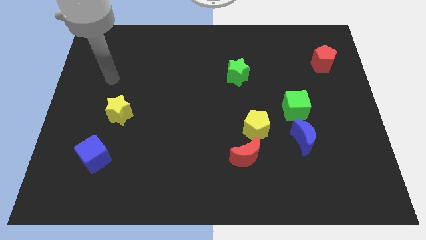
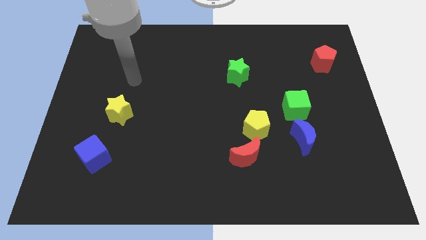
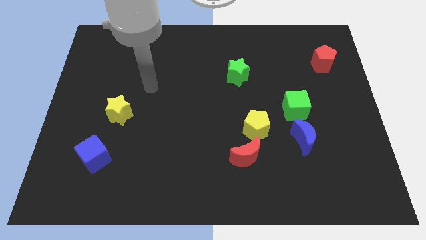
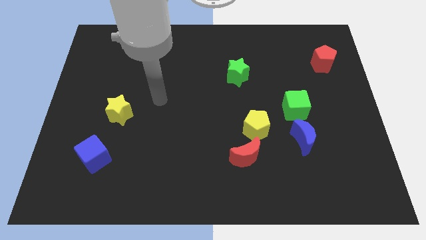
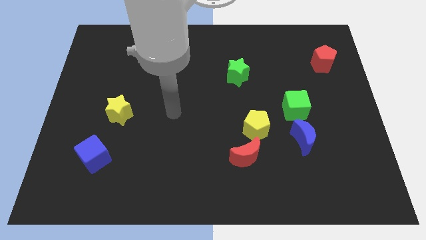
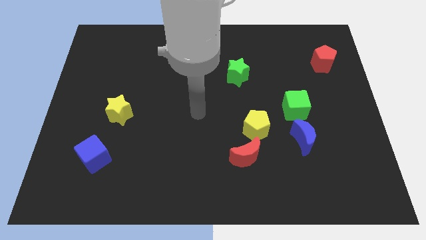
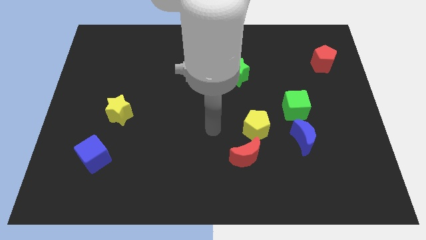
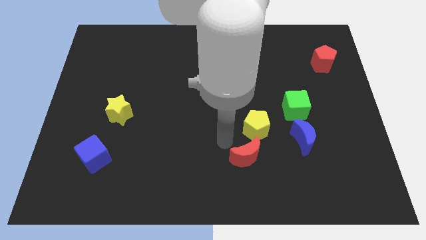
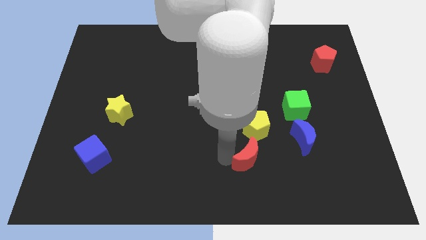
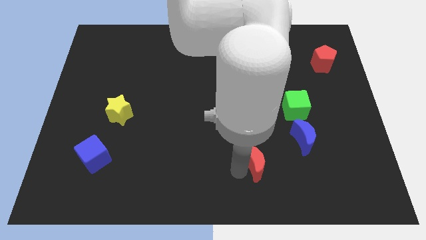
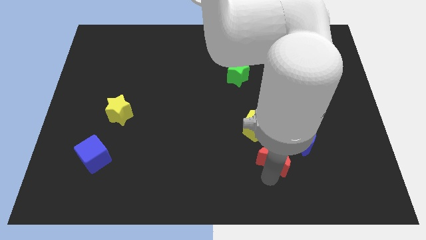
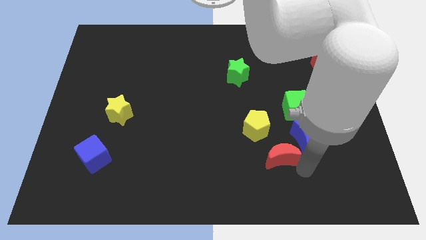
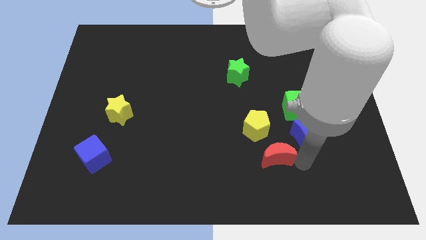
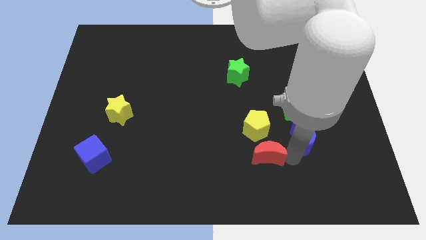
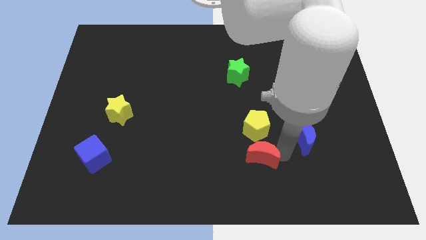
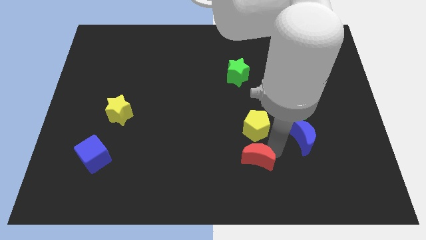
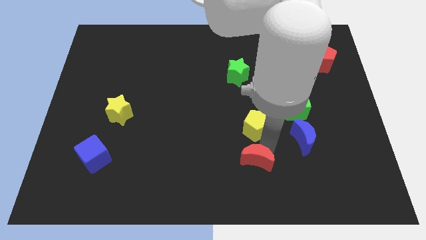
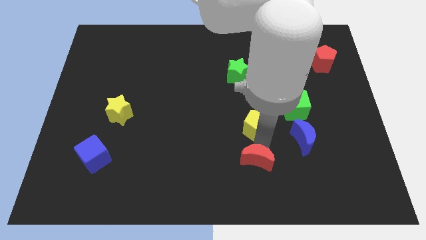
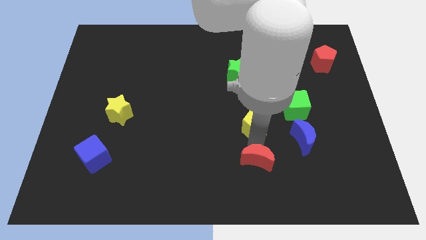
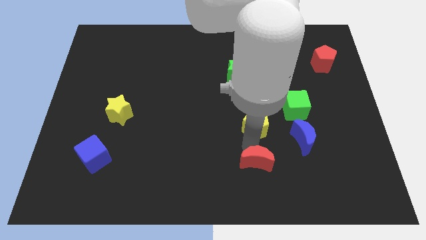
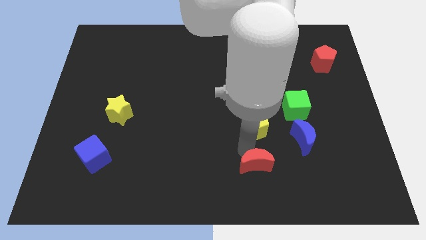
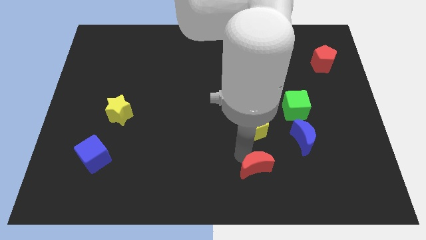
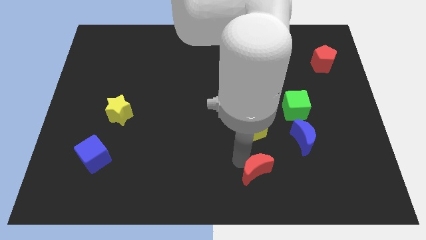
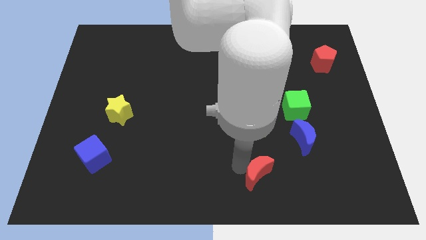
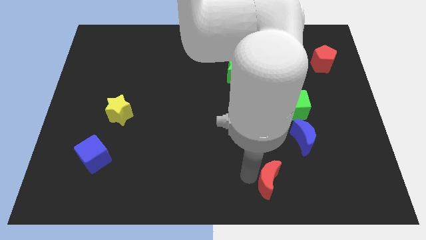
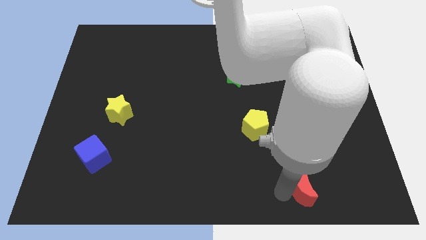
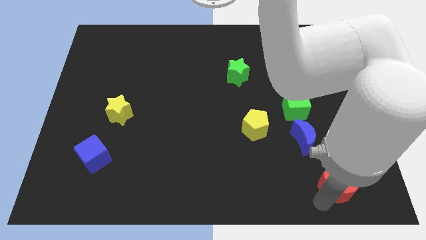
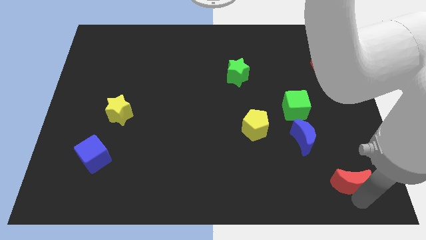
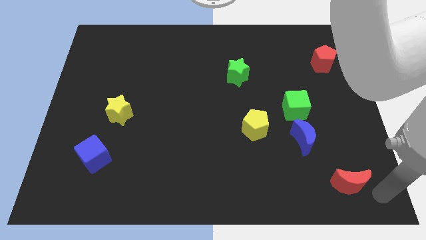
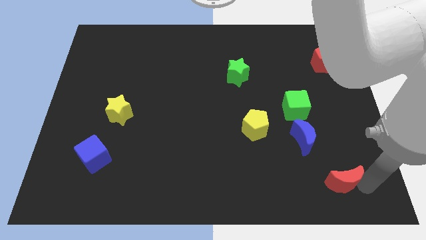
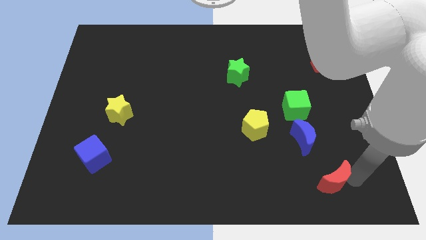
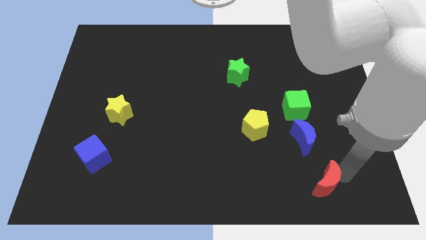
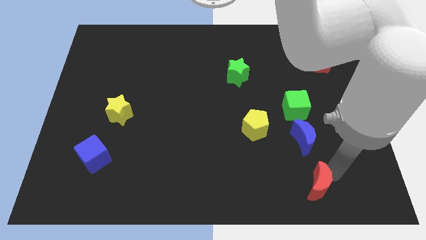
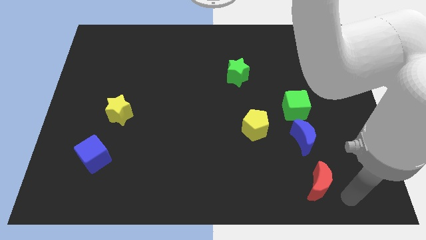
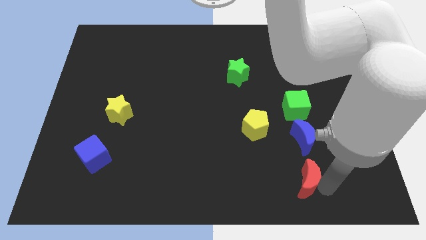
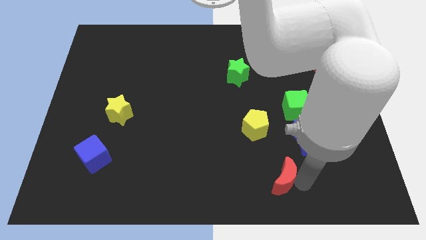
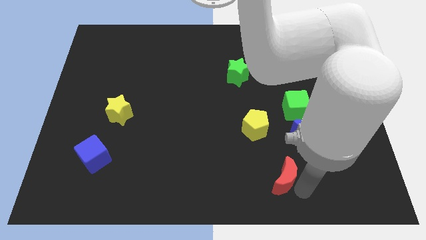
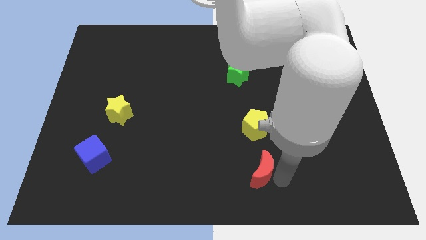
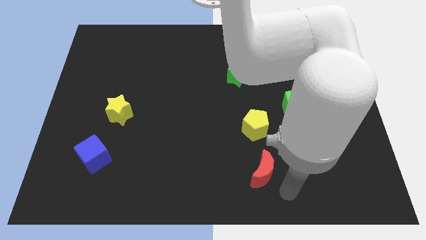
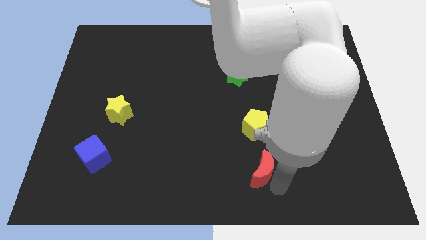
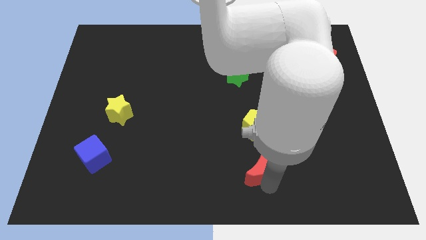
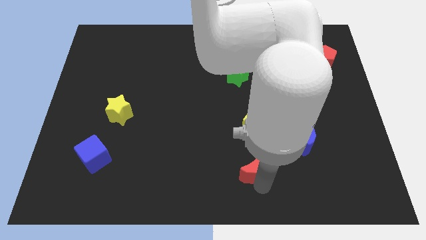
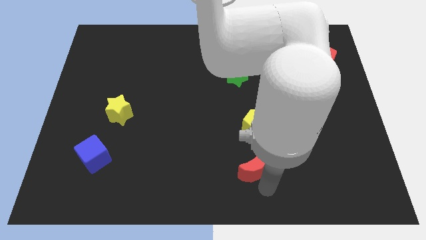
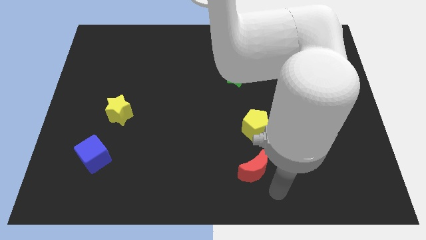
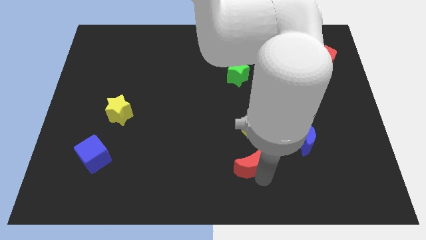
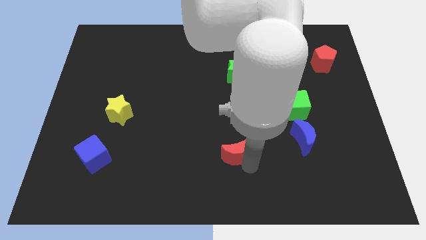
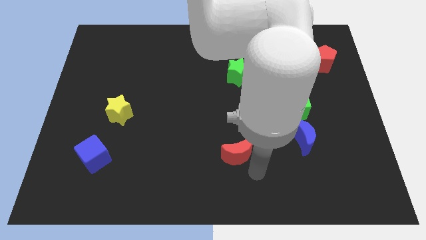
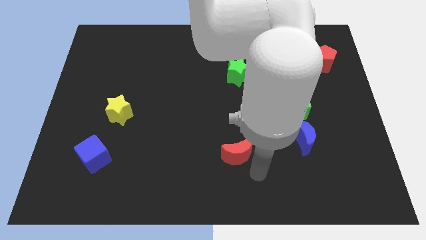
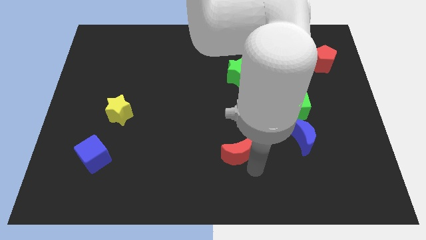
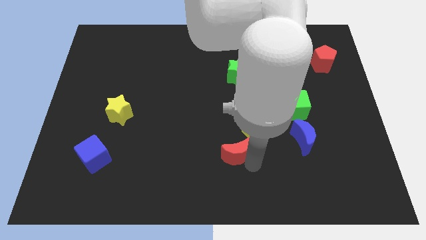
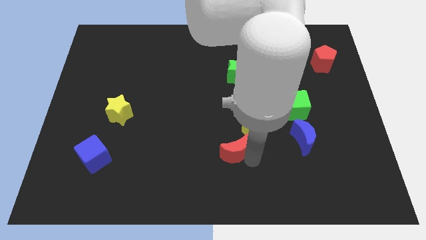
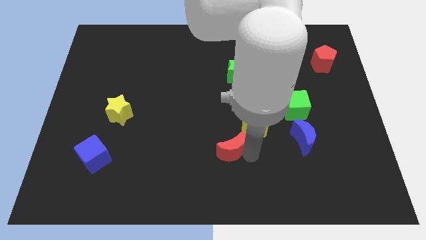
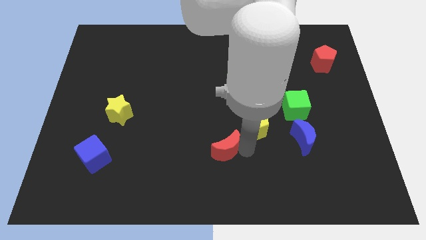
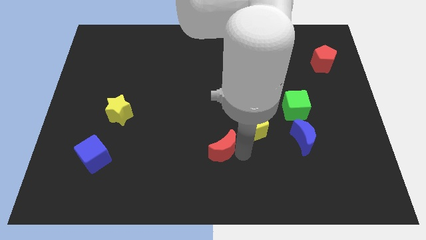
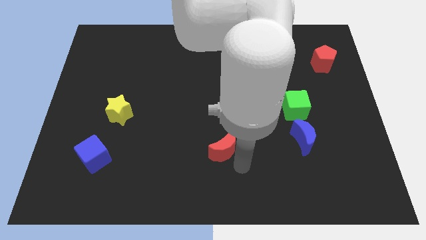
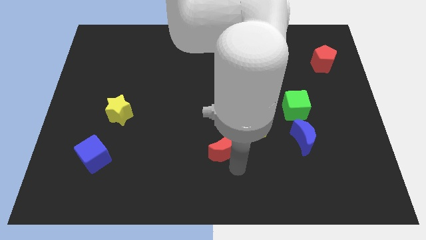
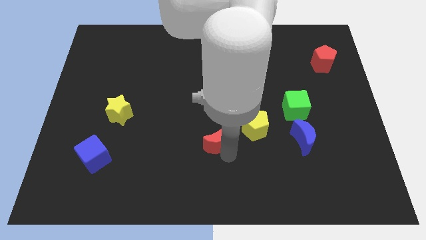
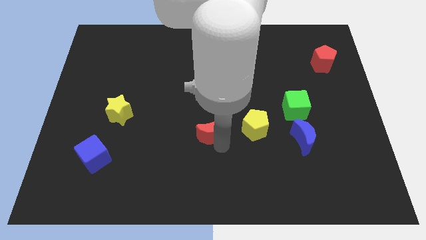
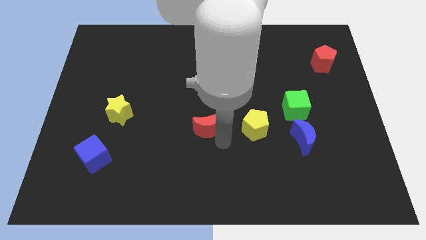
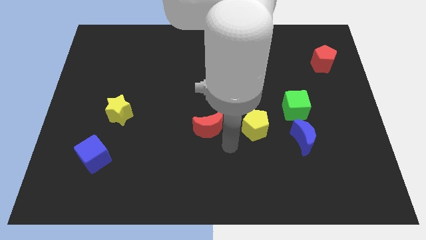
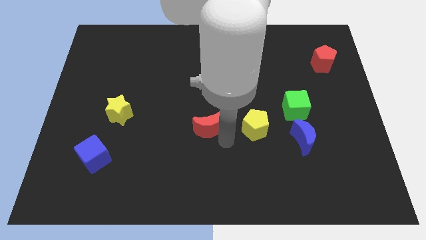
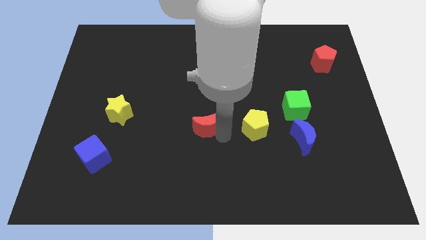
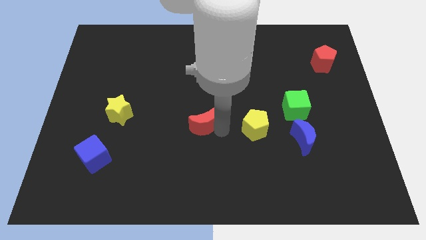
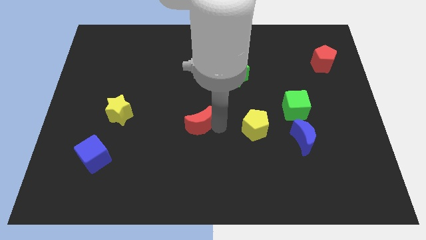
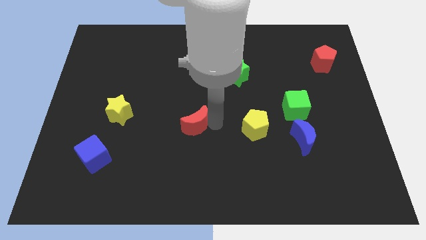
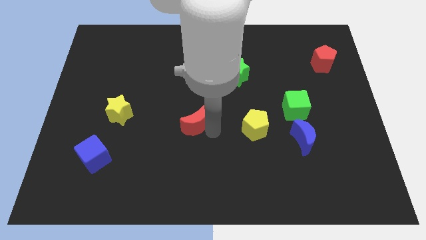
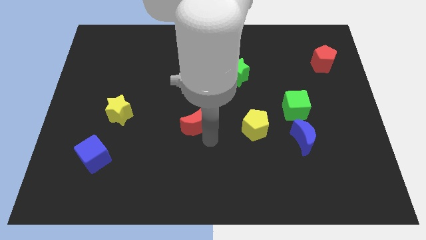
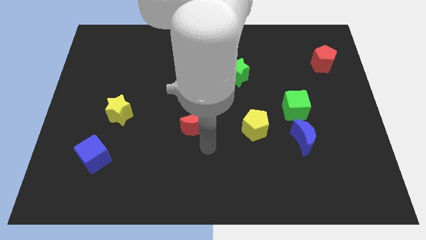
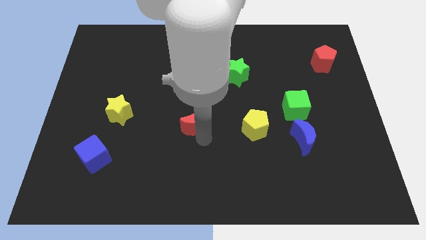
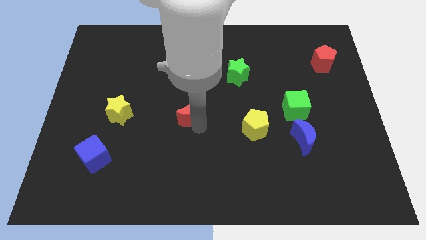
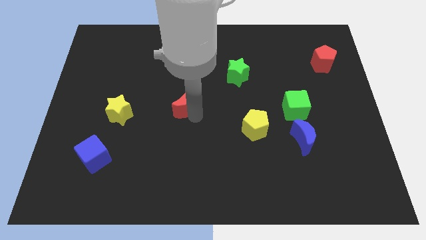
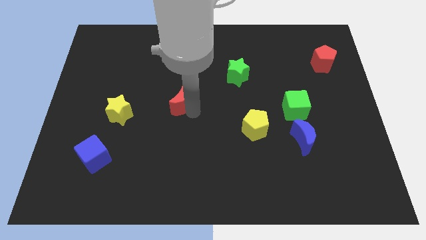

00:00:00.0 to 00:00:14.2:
move the red moon upwards and left diagonally

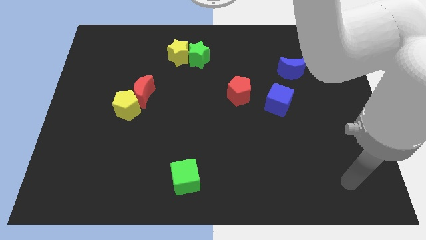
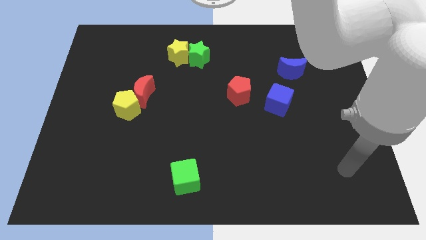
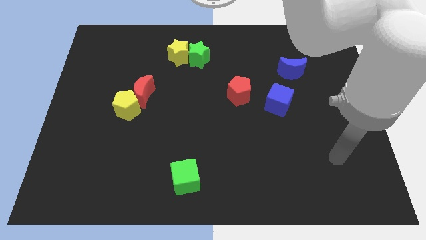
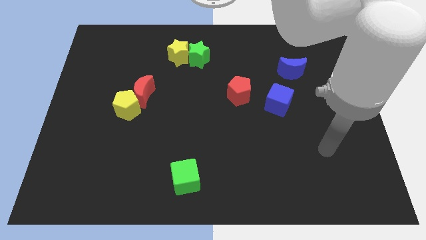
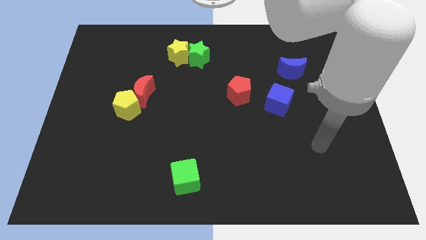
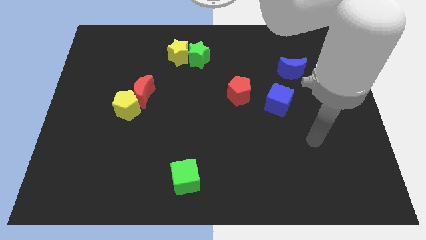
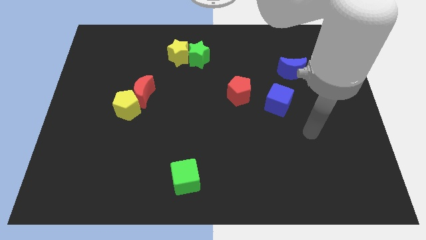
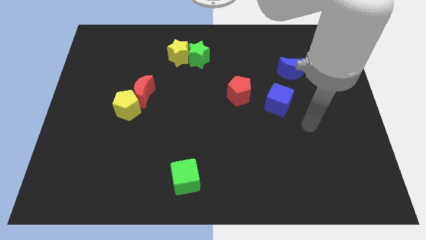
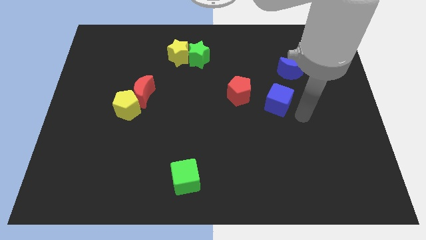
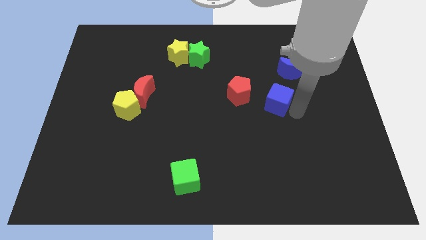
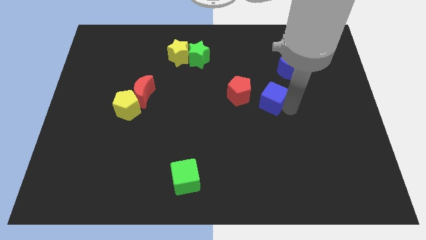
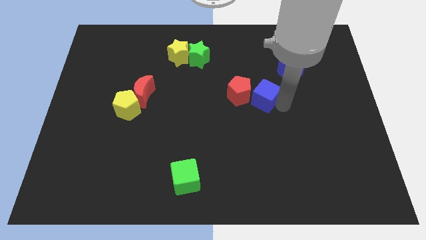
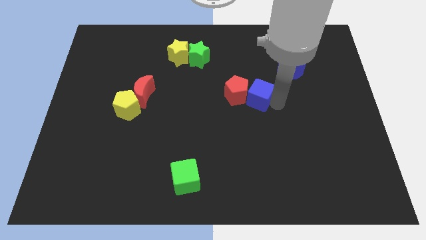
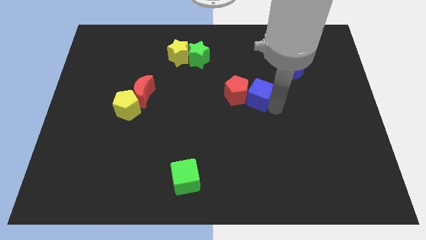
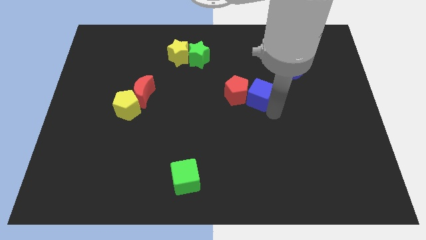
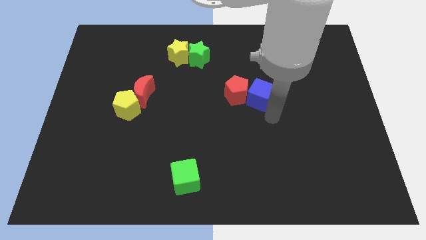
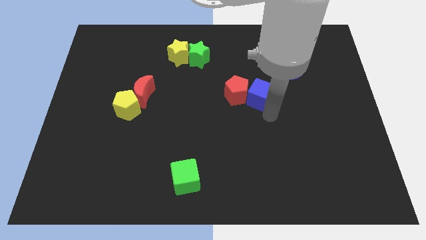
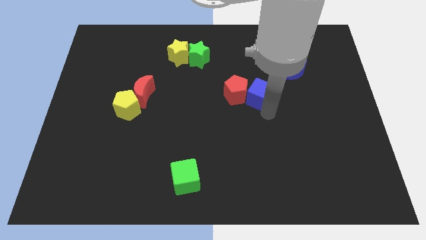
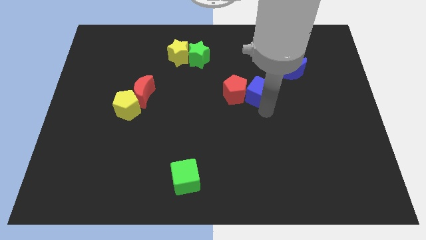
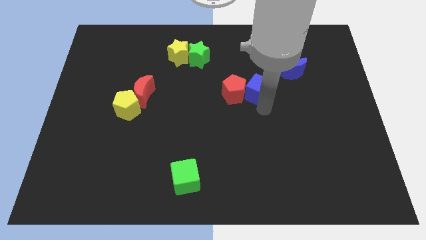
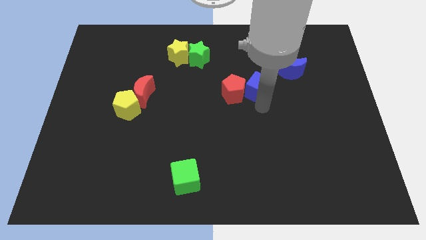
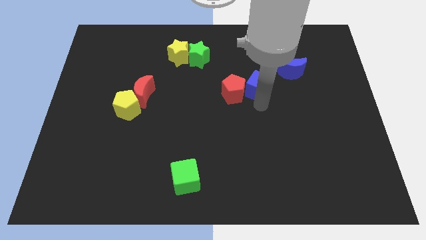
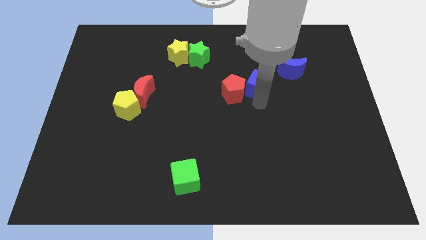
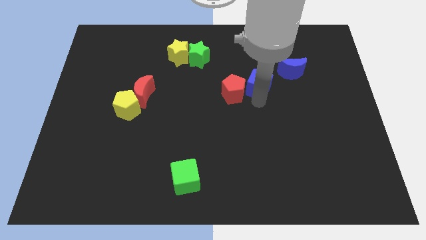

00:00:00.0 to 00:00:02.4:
slide the blue cube a bit up and to the left diagonally
